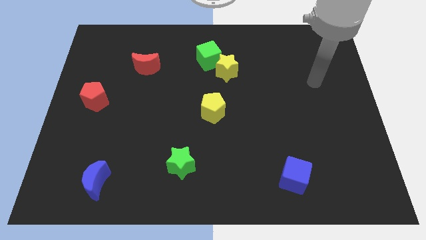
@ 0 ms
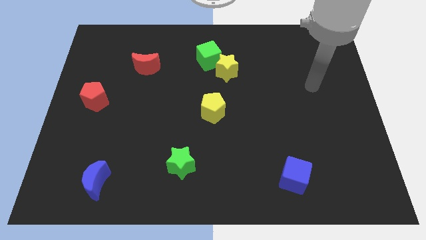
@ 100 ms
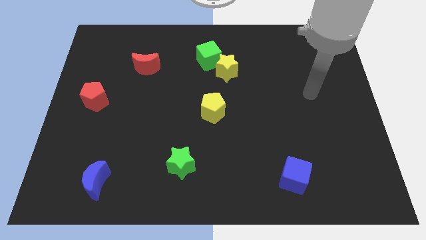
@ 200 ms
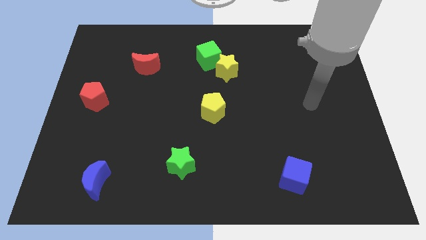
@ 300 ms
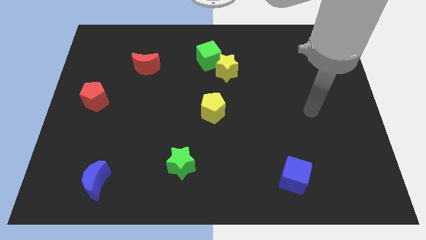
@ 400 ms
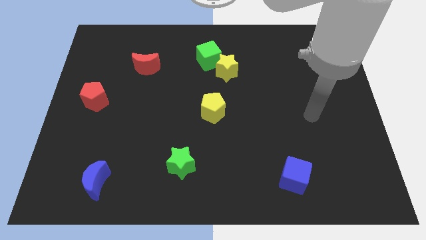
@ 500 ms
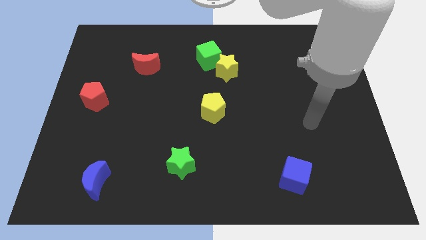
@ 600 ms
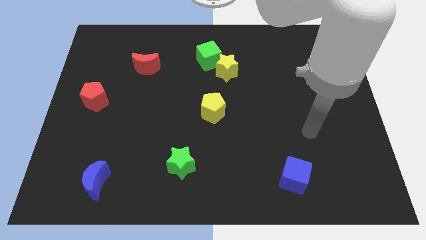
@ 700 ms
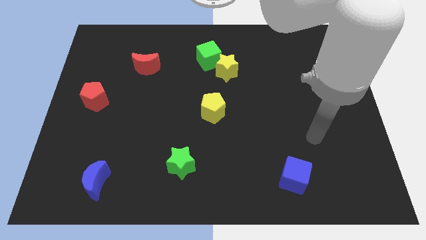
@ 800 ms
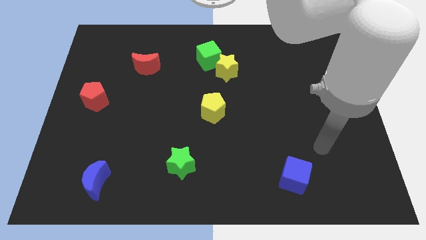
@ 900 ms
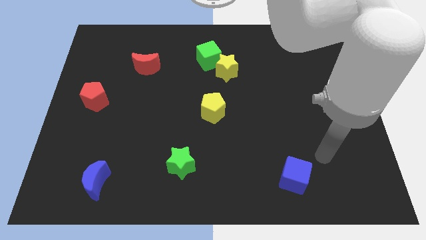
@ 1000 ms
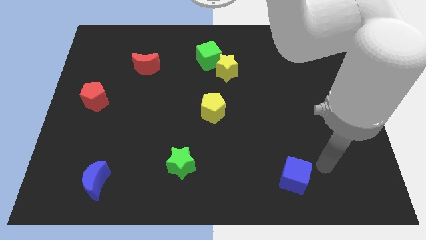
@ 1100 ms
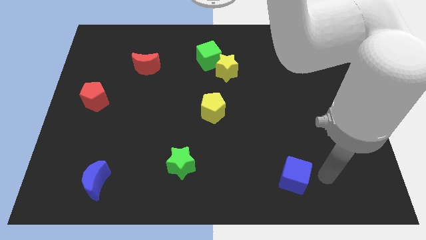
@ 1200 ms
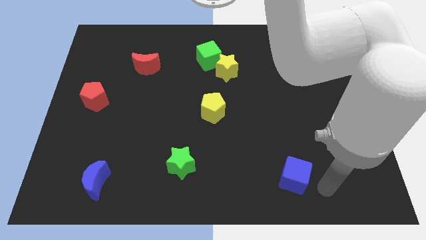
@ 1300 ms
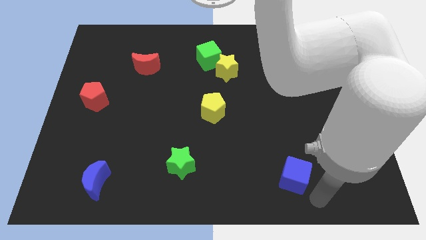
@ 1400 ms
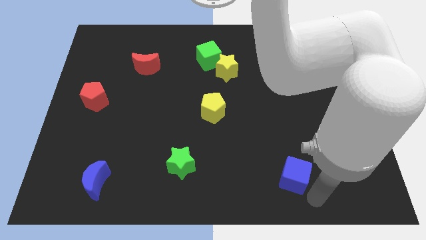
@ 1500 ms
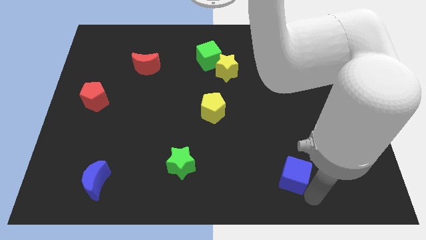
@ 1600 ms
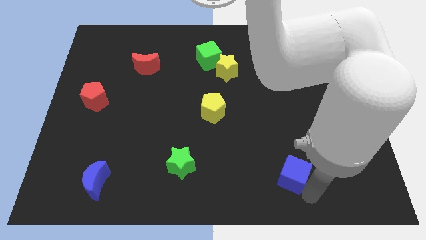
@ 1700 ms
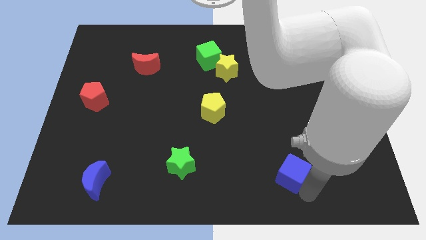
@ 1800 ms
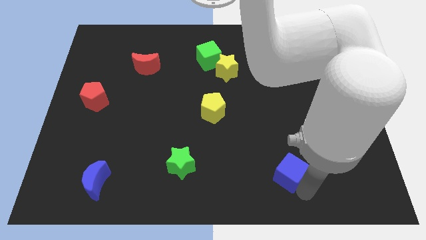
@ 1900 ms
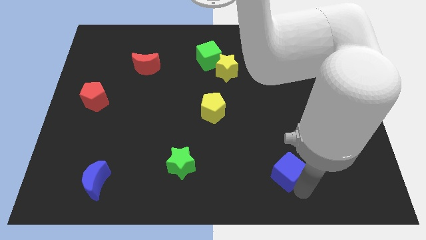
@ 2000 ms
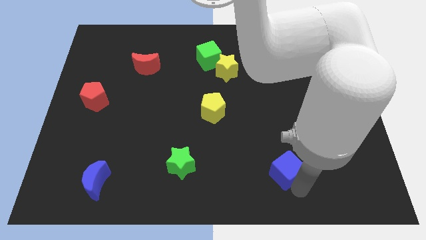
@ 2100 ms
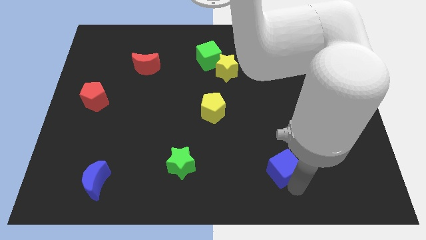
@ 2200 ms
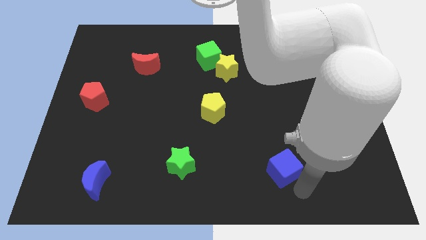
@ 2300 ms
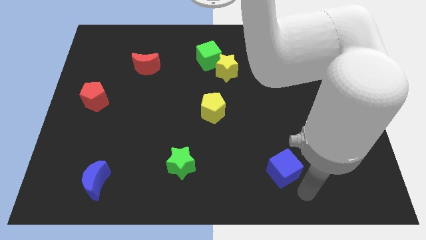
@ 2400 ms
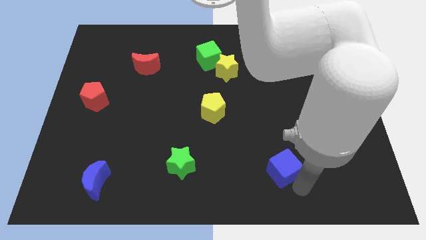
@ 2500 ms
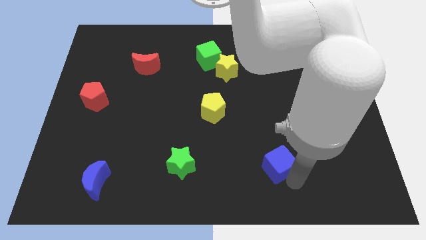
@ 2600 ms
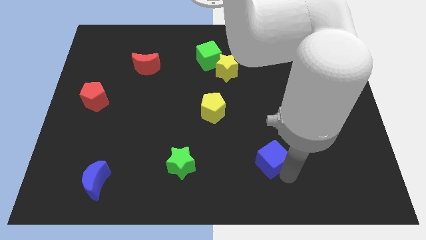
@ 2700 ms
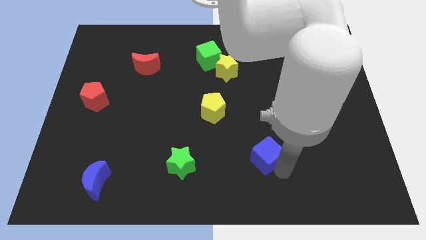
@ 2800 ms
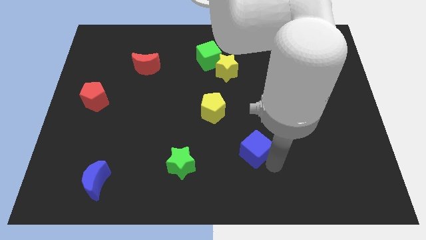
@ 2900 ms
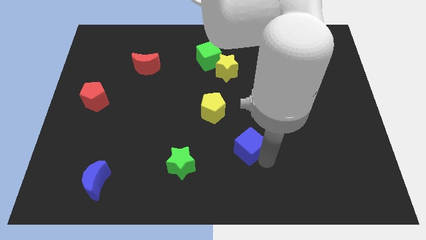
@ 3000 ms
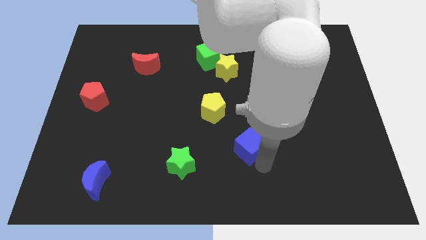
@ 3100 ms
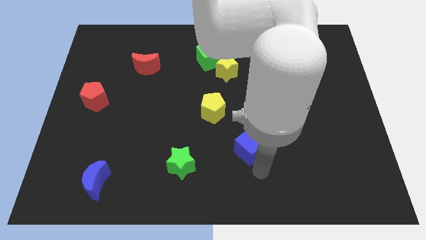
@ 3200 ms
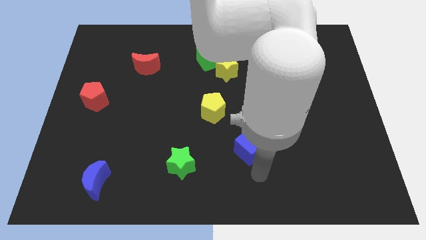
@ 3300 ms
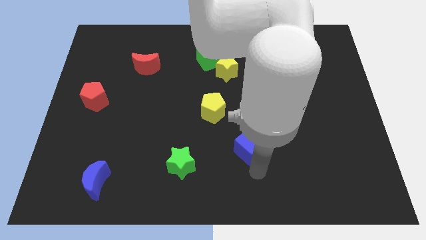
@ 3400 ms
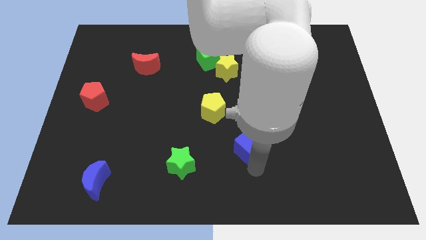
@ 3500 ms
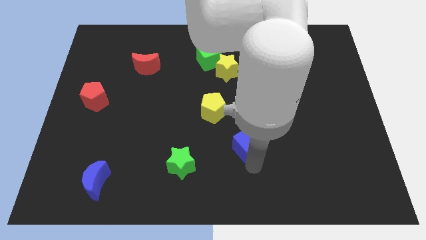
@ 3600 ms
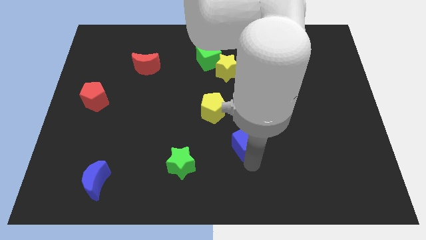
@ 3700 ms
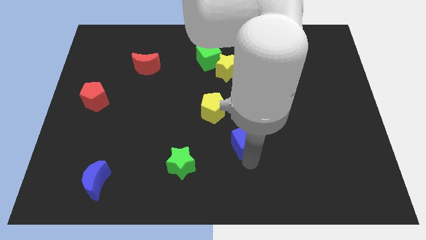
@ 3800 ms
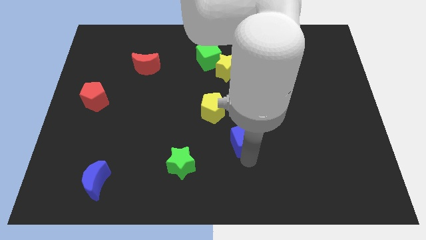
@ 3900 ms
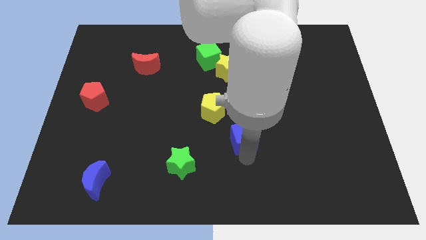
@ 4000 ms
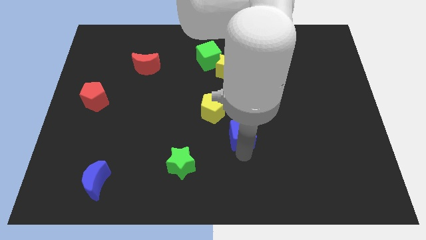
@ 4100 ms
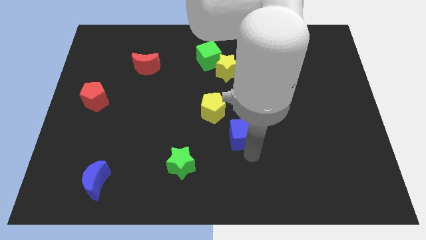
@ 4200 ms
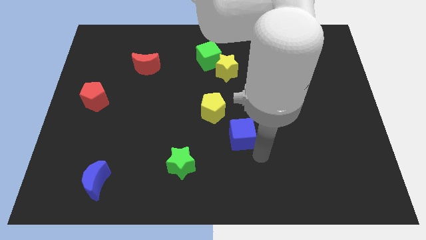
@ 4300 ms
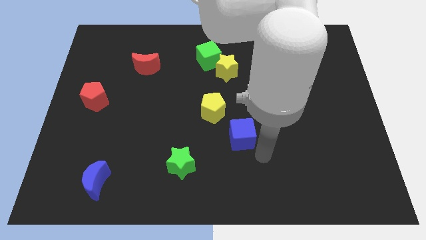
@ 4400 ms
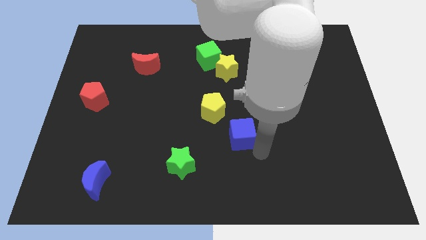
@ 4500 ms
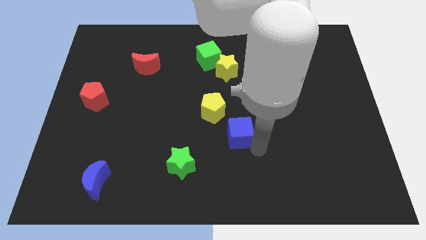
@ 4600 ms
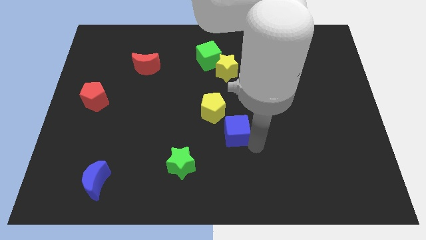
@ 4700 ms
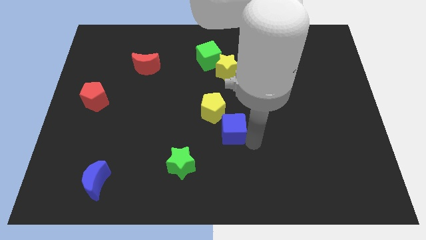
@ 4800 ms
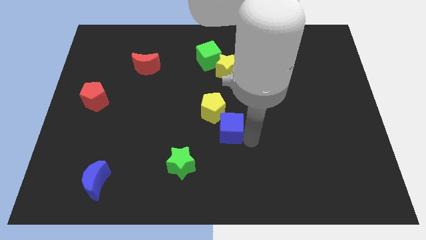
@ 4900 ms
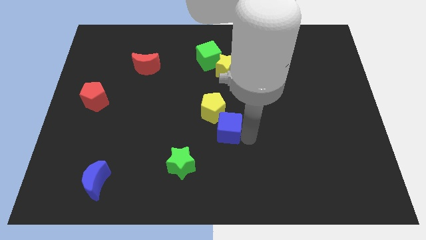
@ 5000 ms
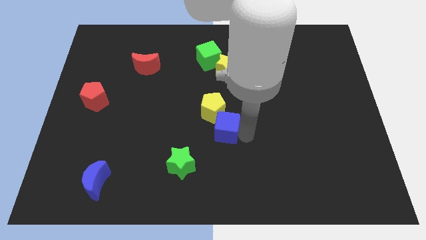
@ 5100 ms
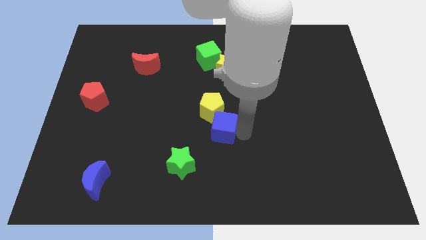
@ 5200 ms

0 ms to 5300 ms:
push the blue cube towards the yellow pentagon

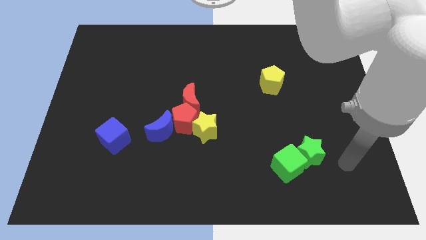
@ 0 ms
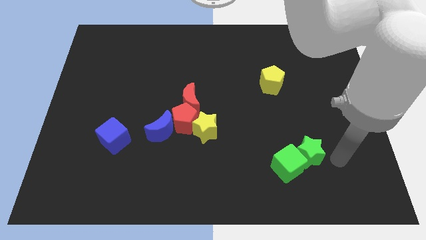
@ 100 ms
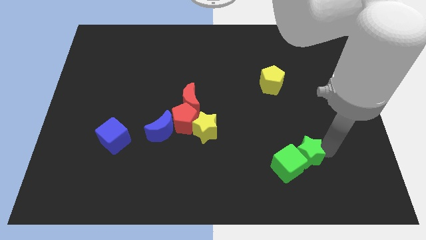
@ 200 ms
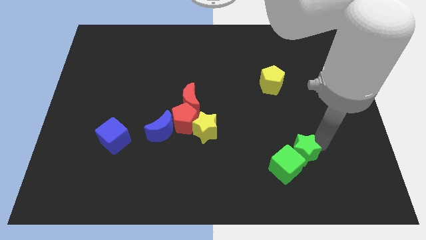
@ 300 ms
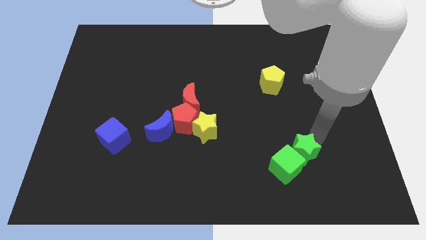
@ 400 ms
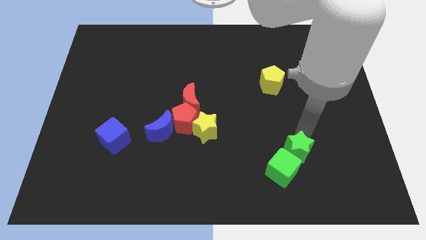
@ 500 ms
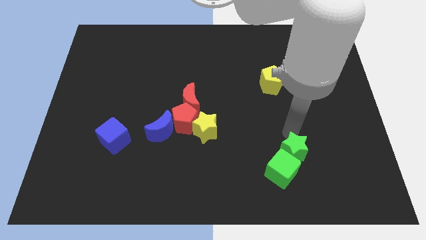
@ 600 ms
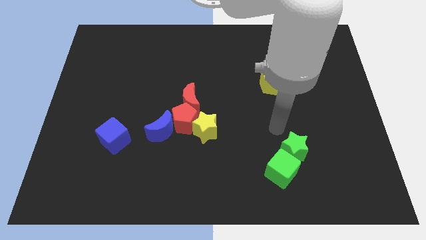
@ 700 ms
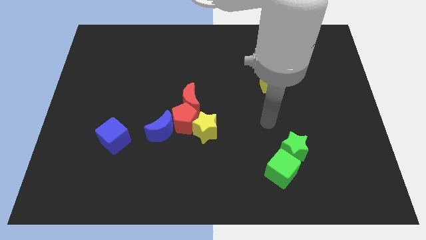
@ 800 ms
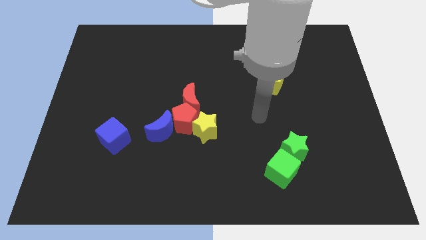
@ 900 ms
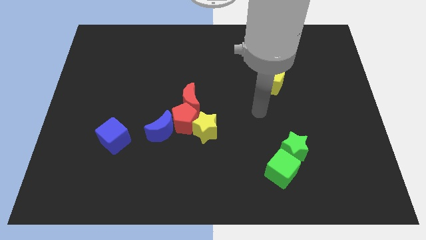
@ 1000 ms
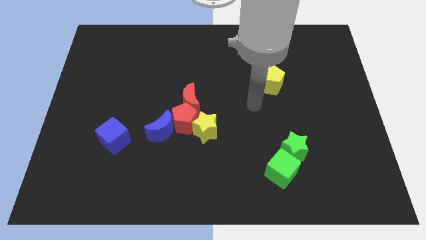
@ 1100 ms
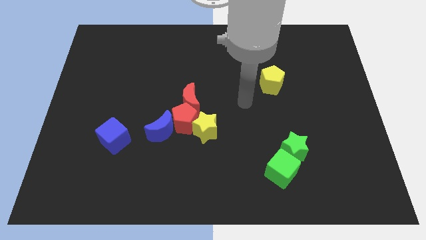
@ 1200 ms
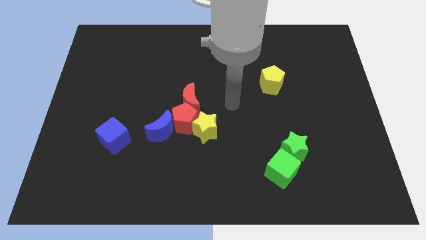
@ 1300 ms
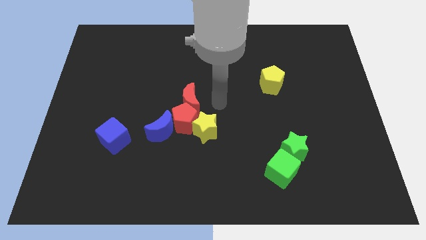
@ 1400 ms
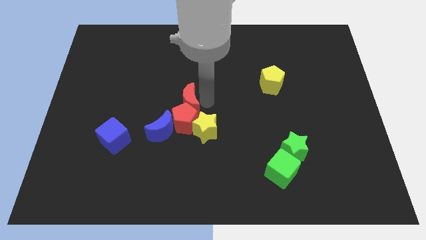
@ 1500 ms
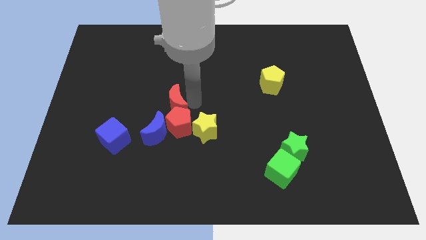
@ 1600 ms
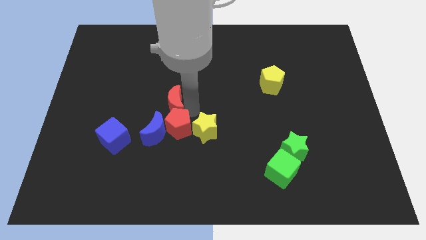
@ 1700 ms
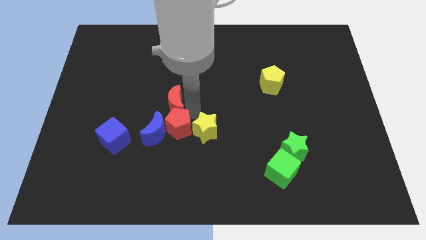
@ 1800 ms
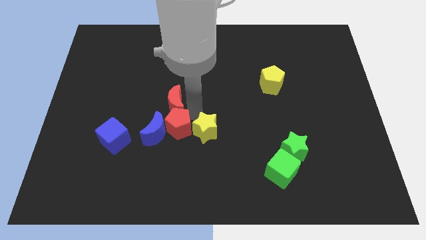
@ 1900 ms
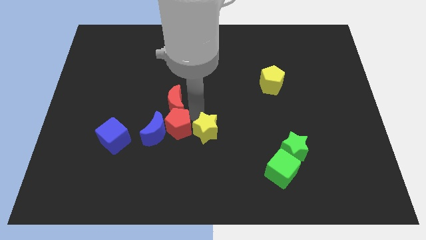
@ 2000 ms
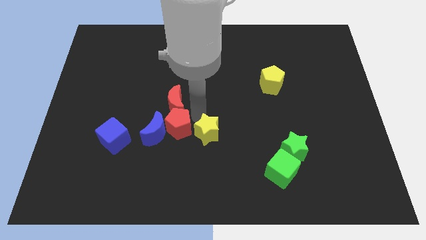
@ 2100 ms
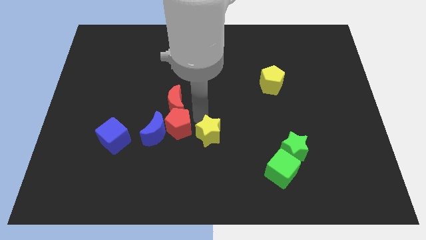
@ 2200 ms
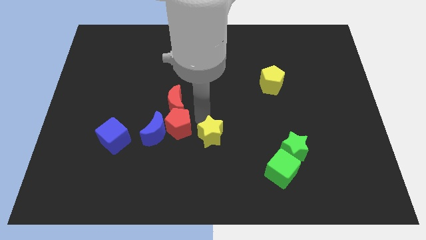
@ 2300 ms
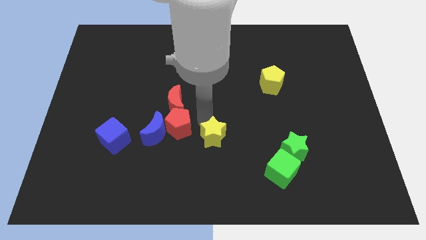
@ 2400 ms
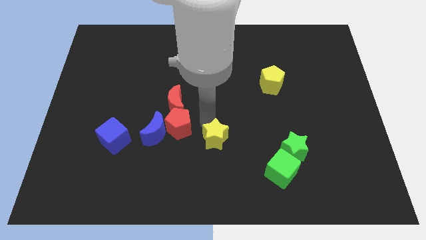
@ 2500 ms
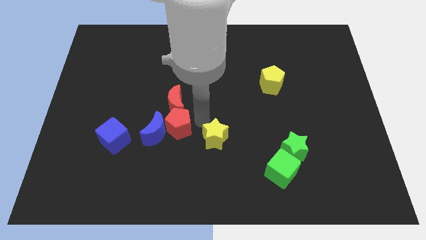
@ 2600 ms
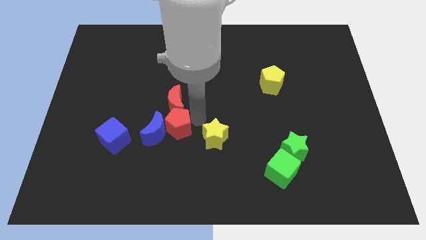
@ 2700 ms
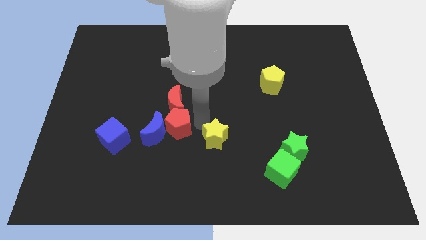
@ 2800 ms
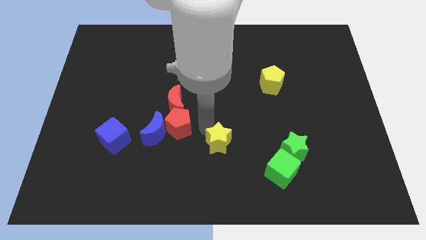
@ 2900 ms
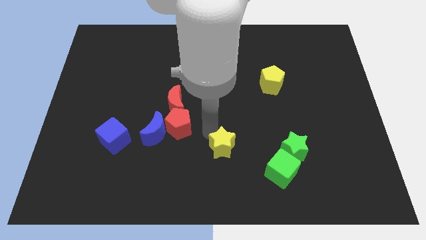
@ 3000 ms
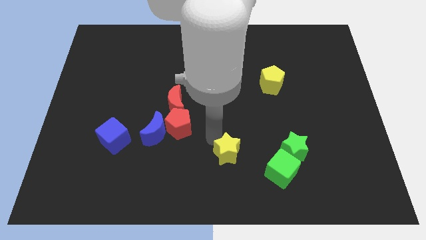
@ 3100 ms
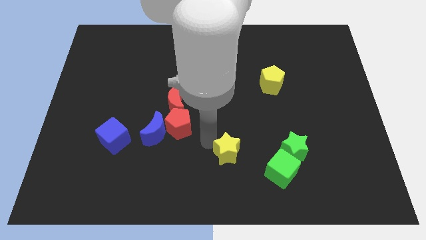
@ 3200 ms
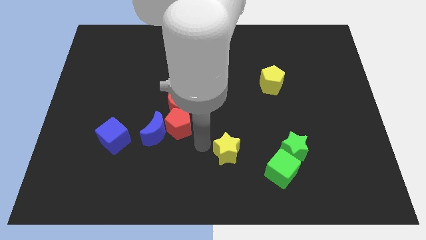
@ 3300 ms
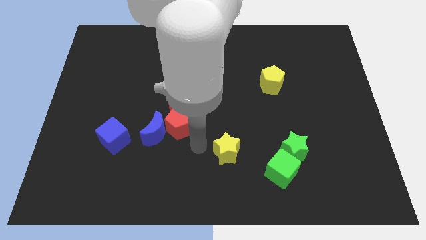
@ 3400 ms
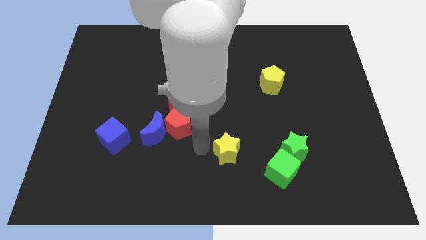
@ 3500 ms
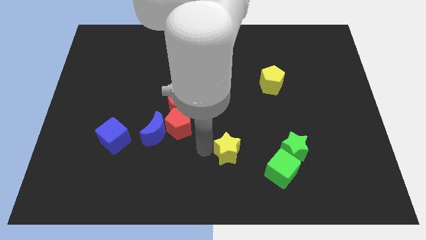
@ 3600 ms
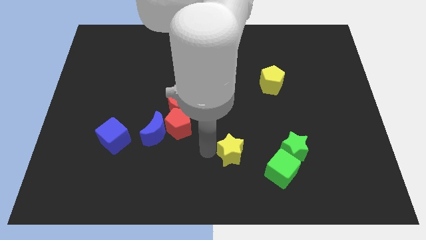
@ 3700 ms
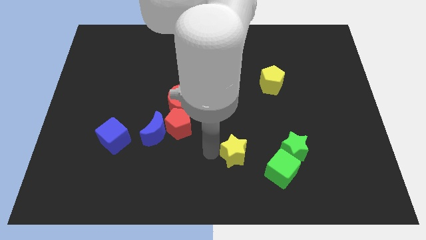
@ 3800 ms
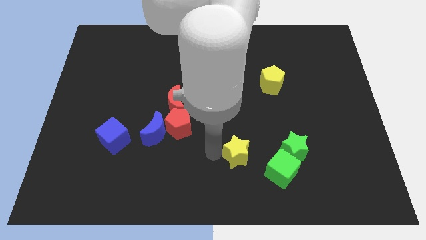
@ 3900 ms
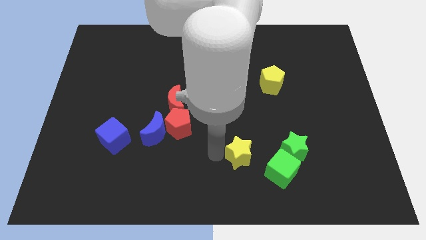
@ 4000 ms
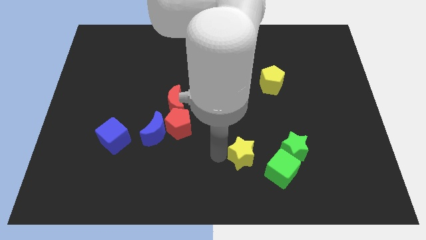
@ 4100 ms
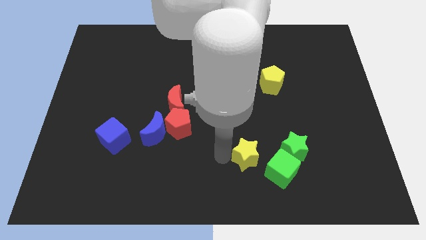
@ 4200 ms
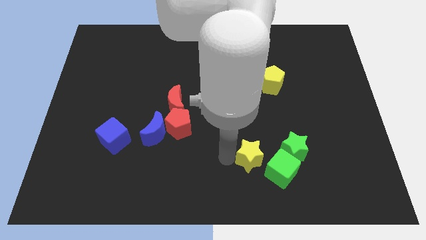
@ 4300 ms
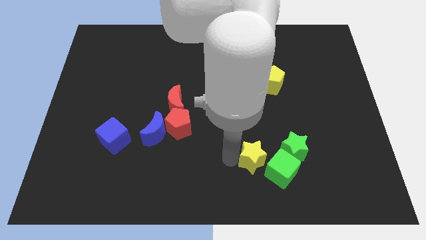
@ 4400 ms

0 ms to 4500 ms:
push the yellow star towards the green cube
